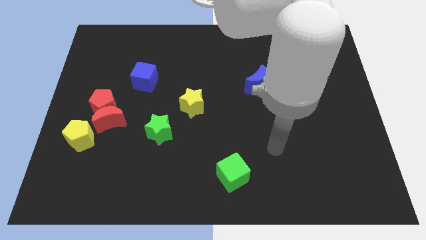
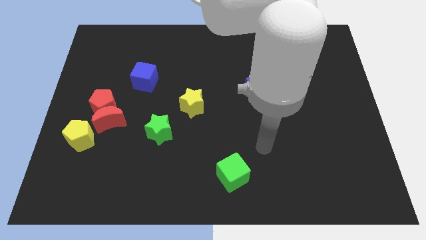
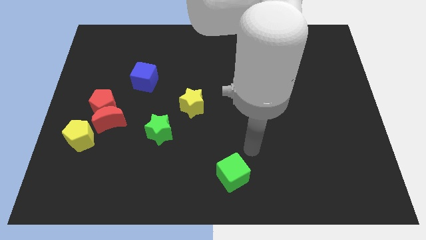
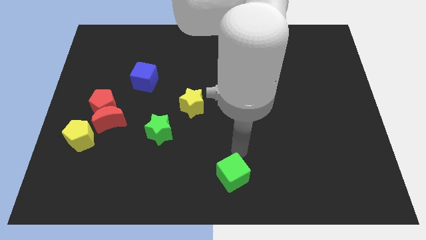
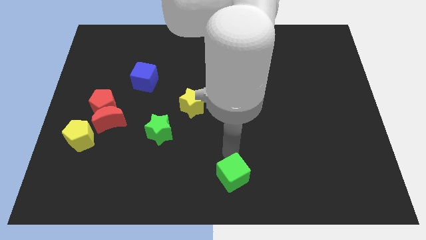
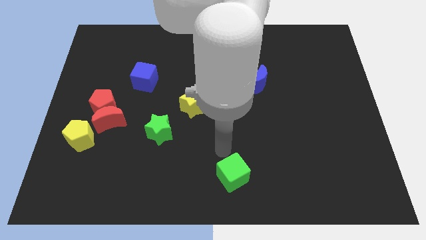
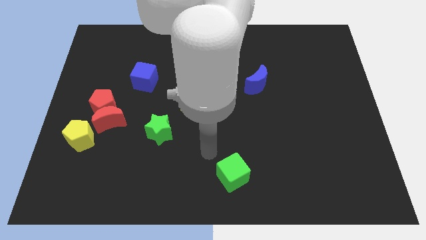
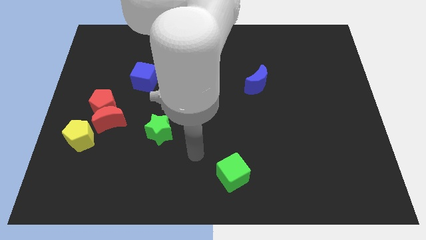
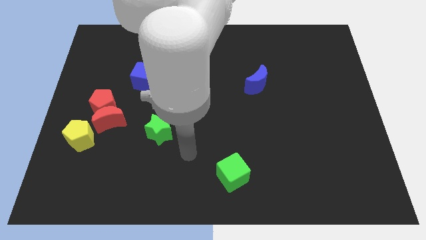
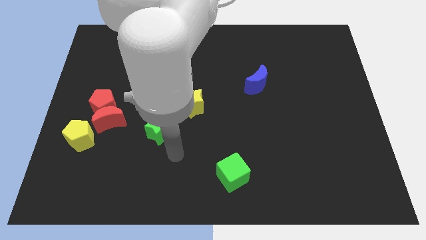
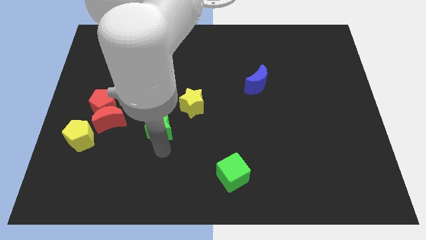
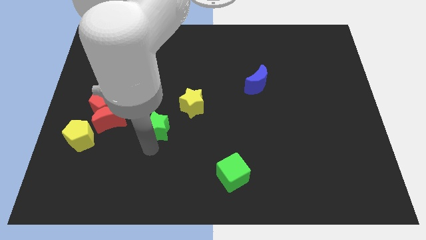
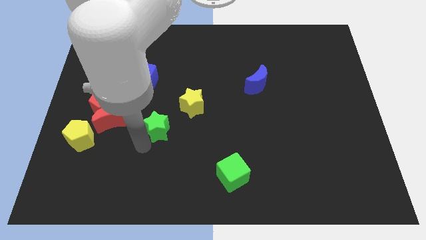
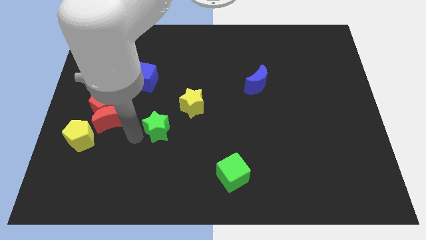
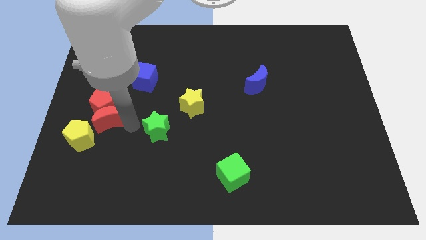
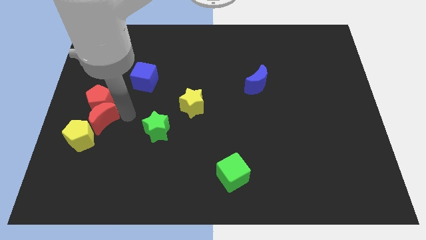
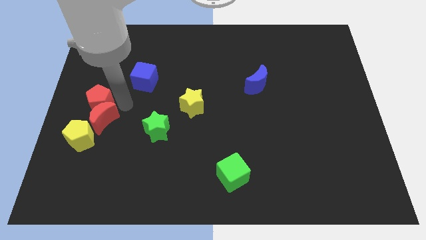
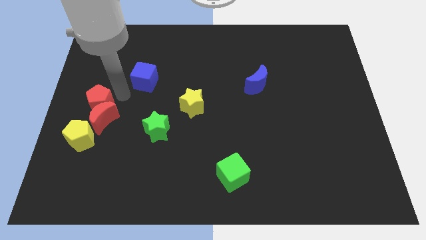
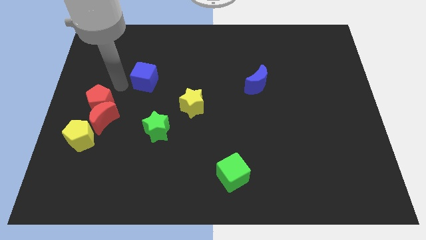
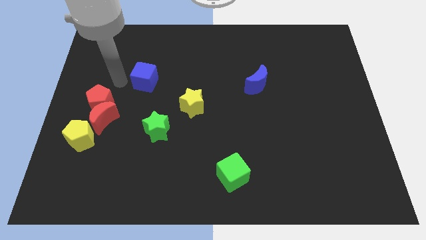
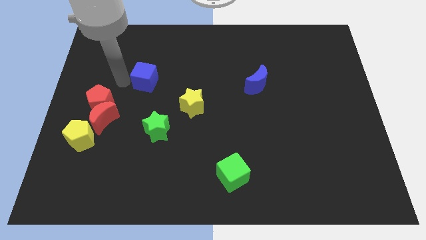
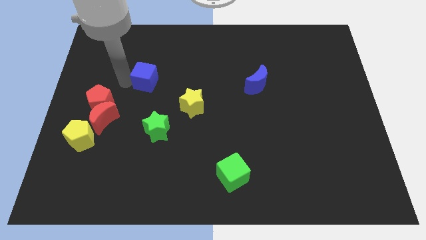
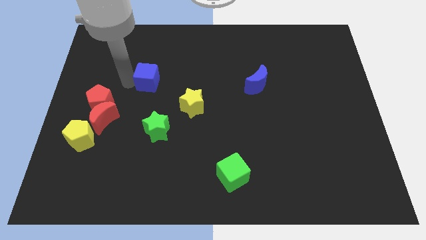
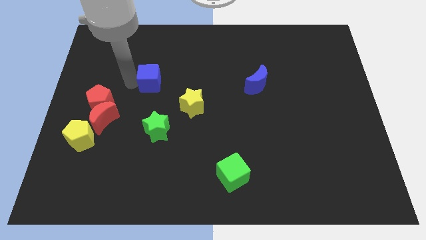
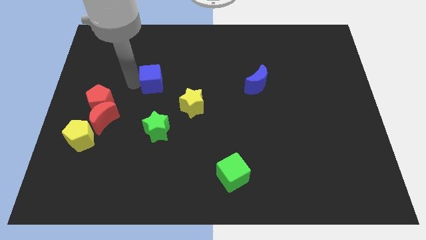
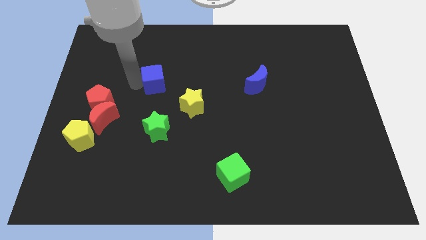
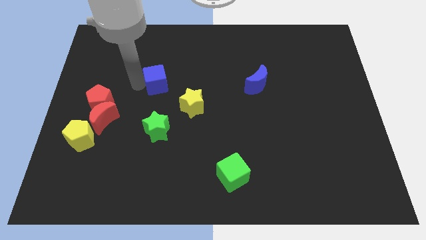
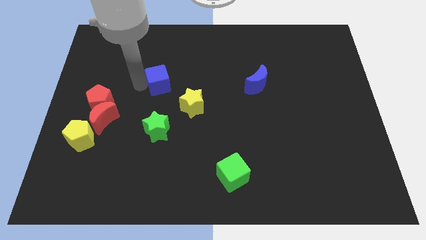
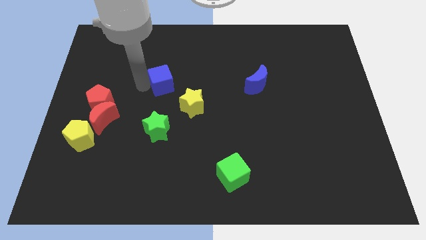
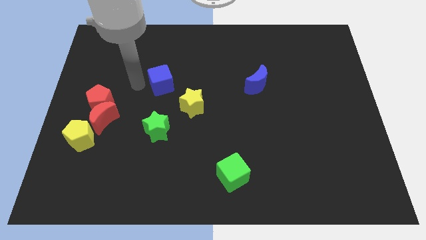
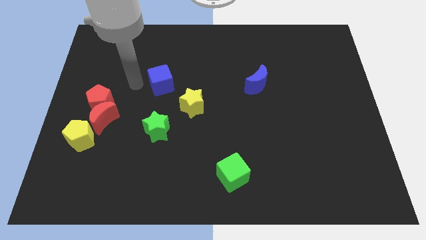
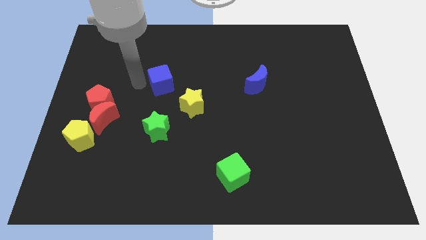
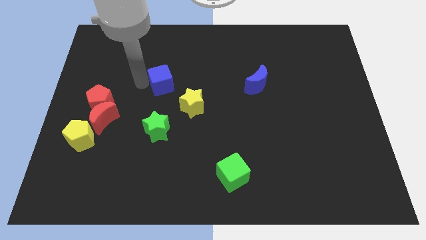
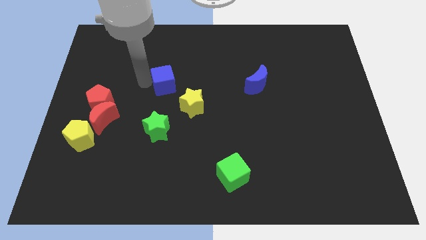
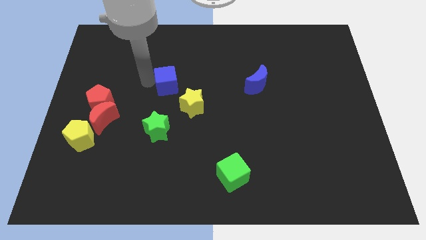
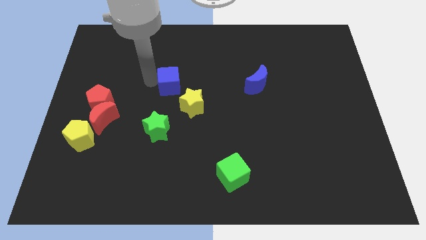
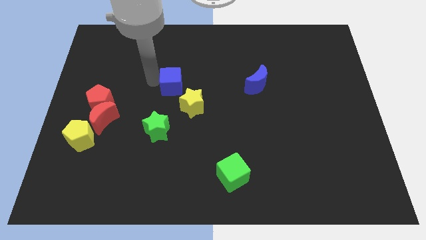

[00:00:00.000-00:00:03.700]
slightly slide the blue cube to the right

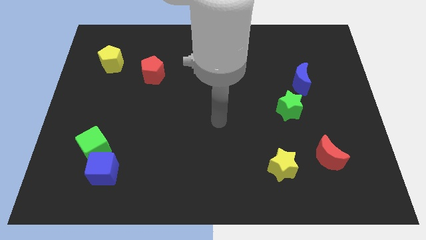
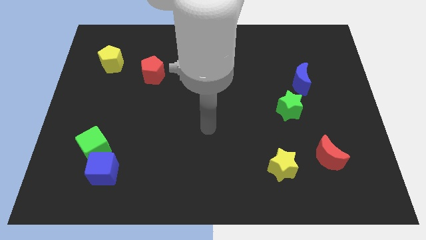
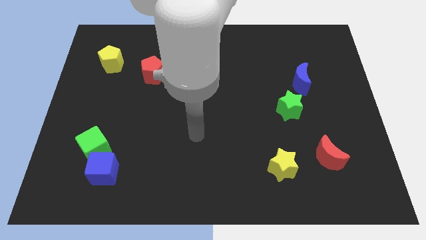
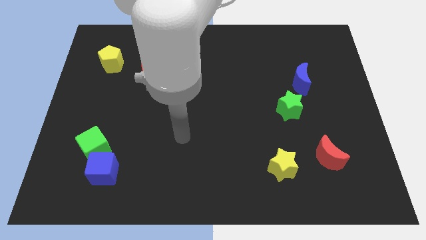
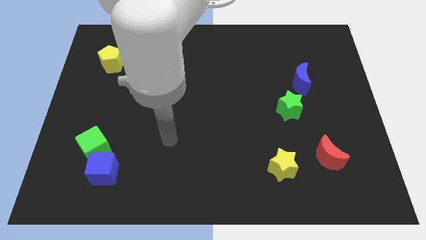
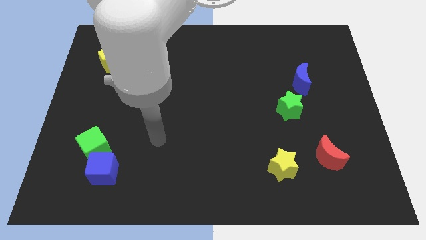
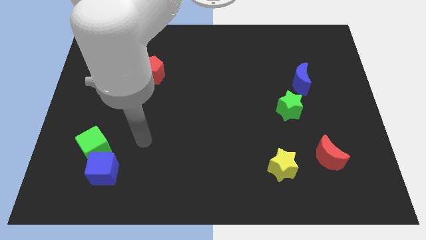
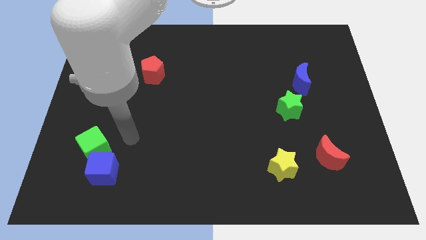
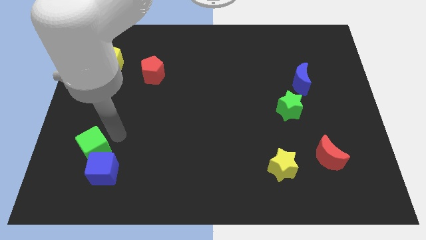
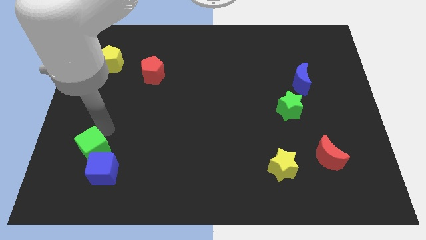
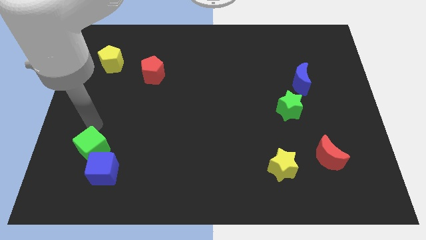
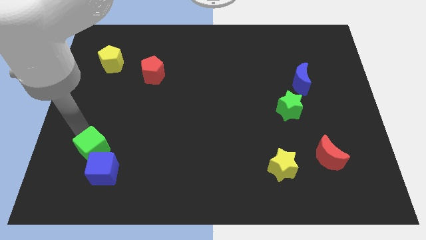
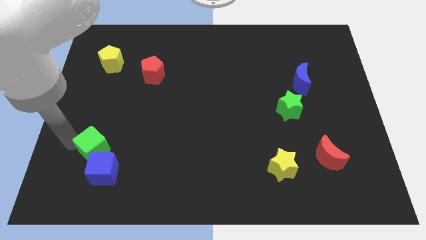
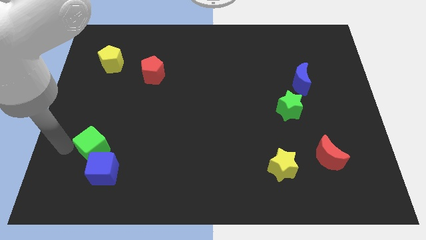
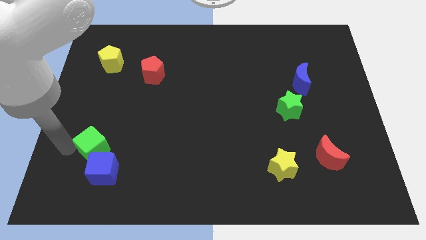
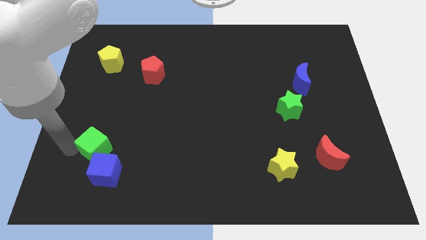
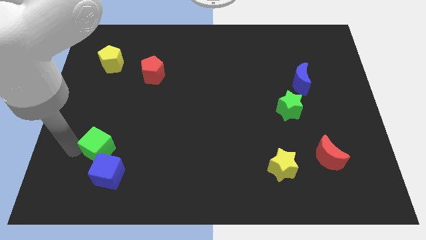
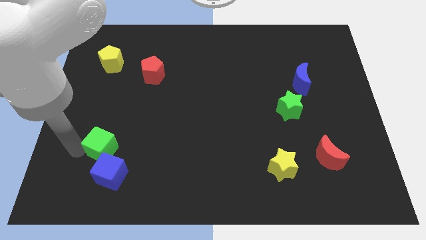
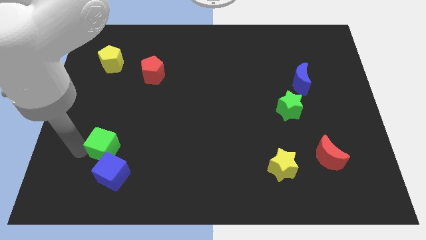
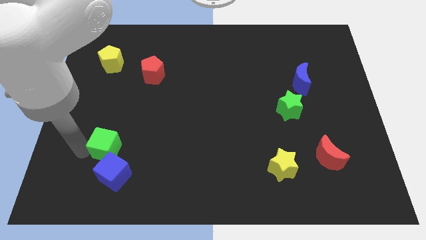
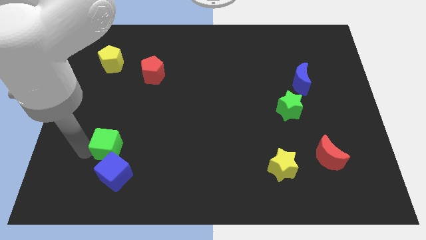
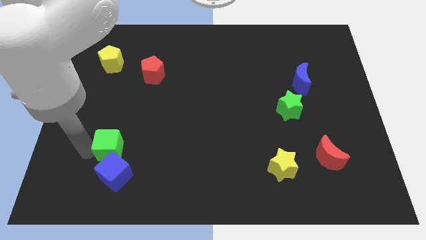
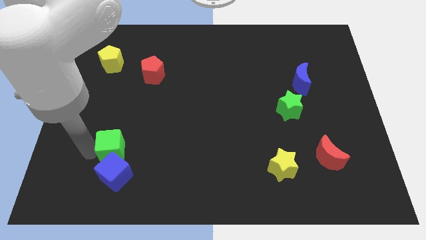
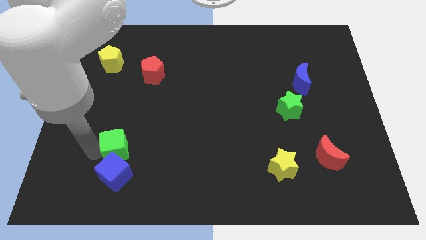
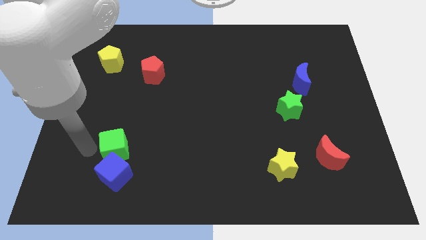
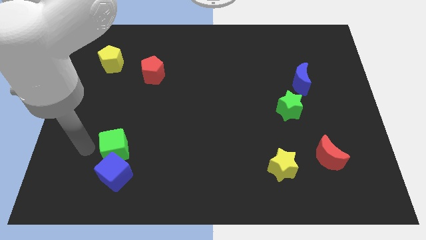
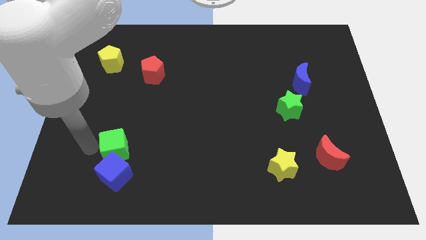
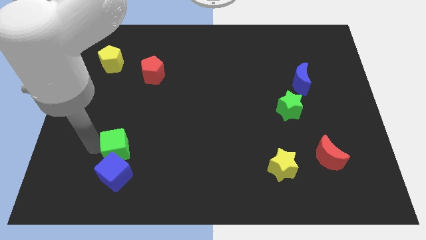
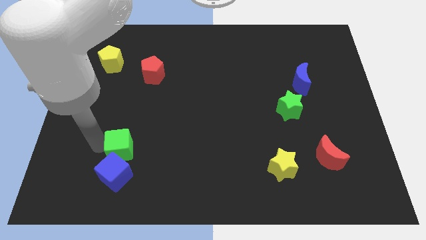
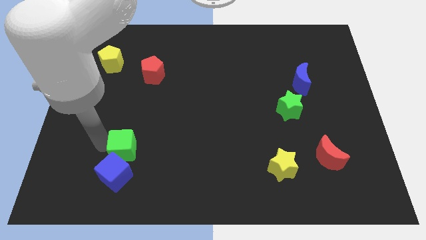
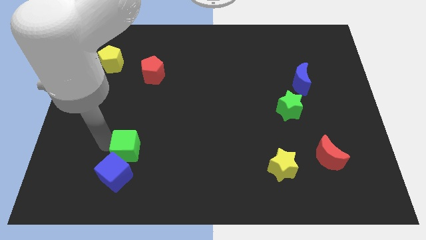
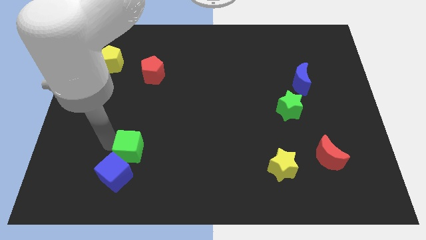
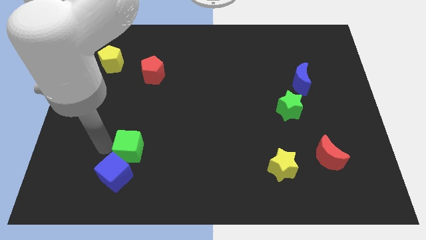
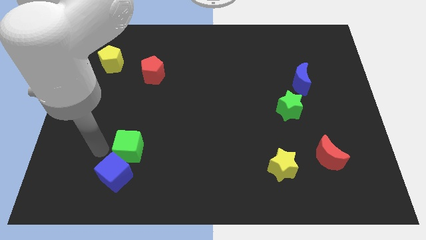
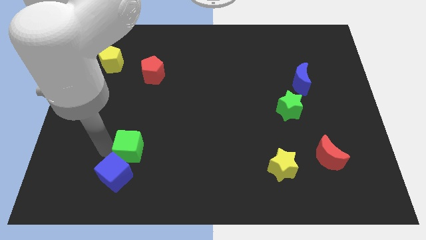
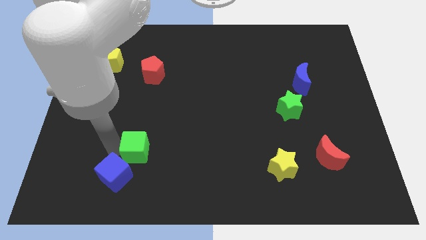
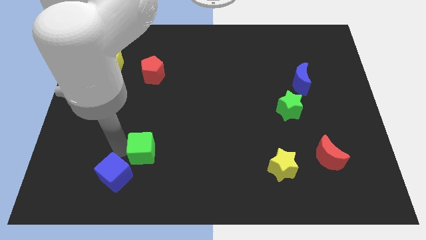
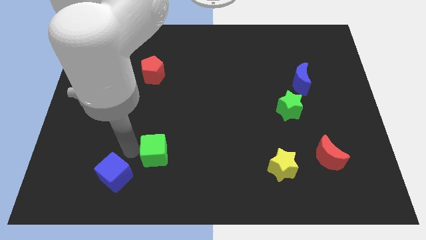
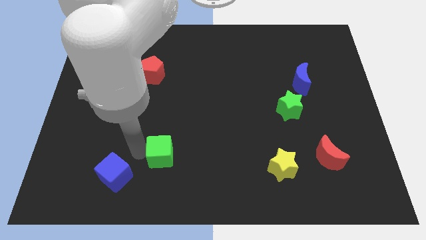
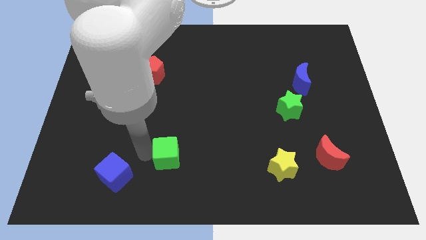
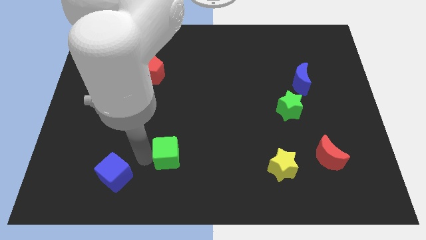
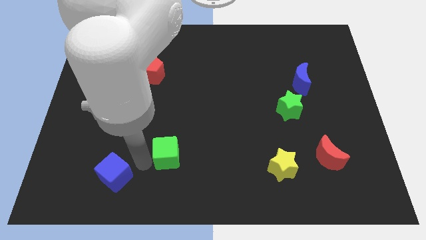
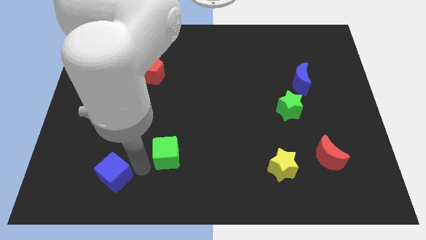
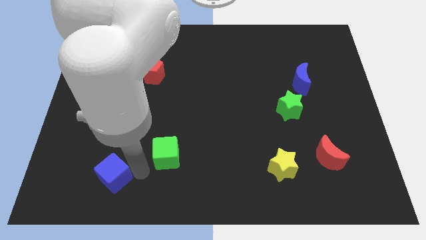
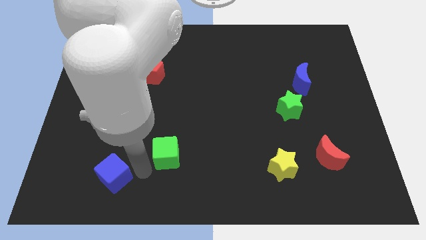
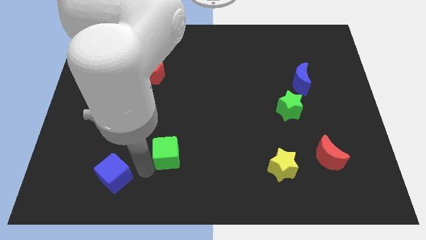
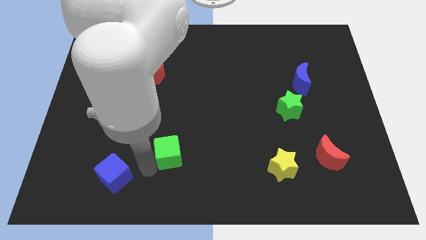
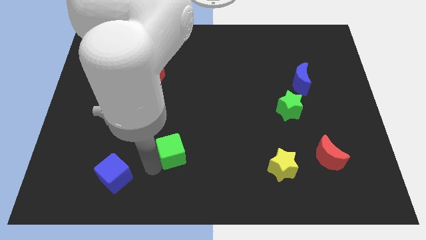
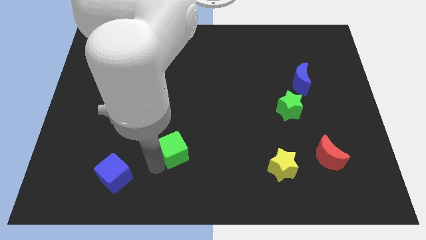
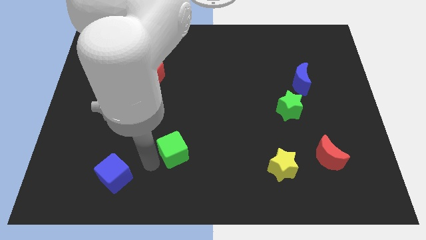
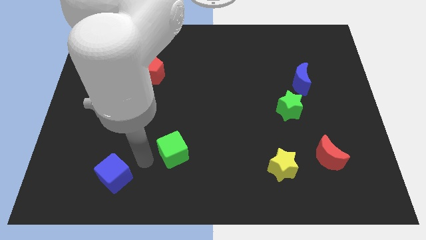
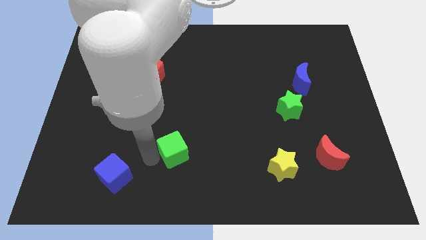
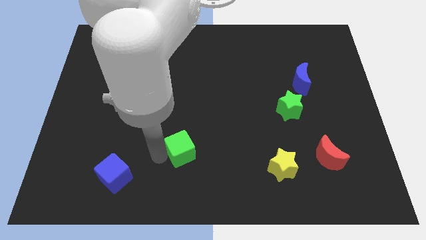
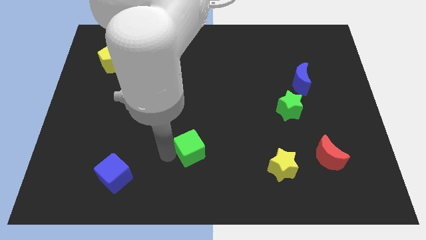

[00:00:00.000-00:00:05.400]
push the green cube to the right
